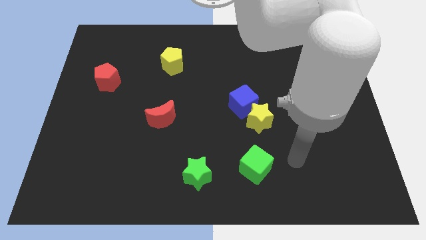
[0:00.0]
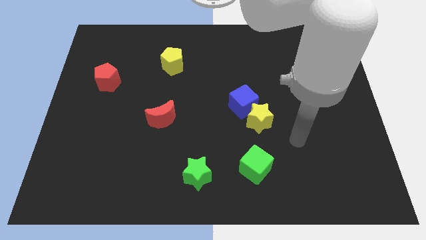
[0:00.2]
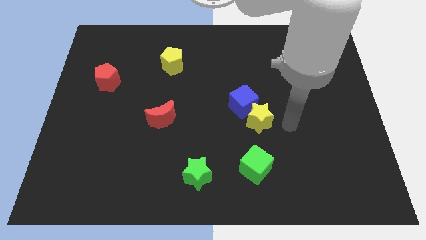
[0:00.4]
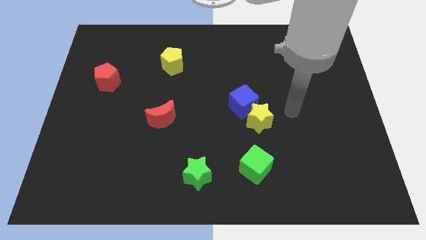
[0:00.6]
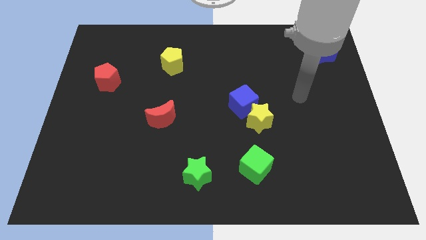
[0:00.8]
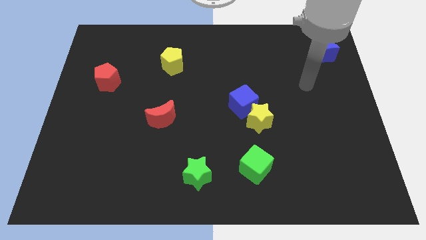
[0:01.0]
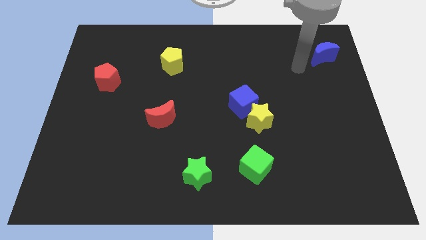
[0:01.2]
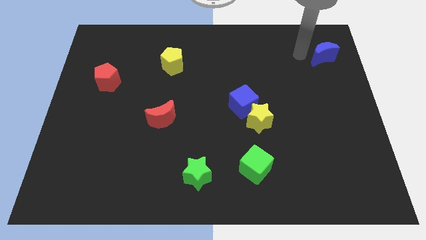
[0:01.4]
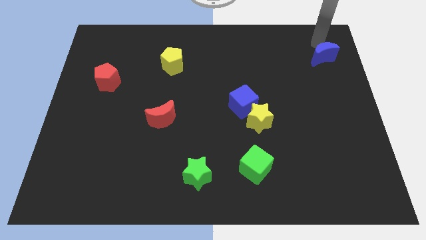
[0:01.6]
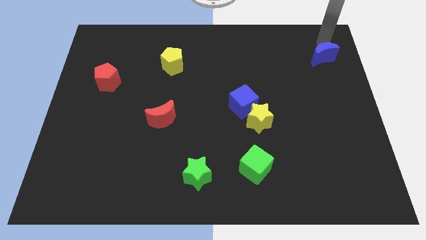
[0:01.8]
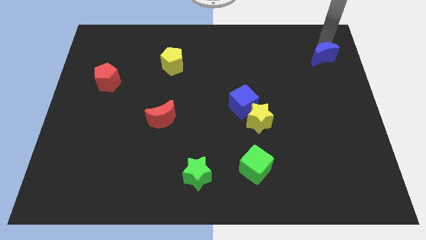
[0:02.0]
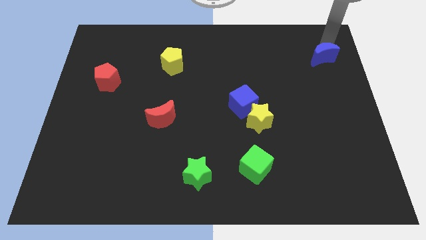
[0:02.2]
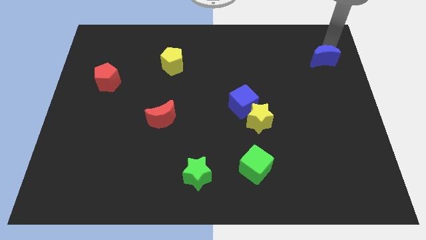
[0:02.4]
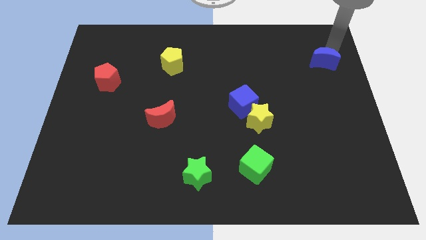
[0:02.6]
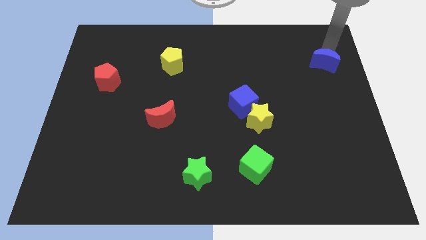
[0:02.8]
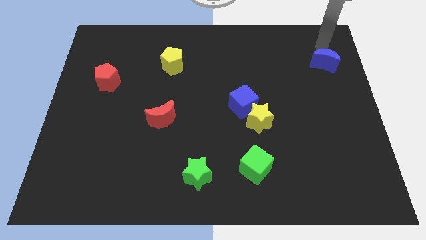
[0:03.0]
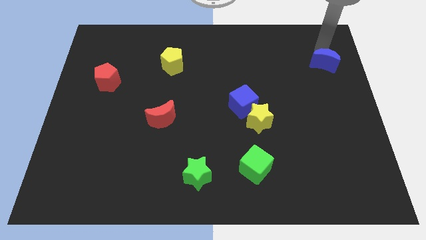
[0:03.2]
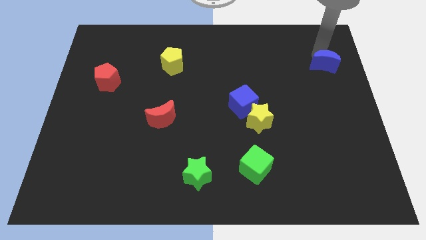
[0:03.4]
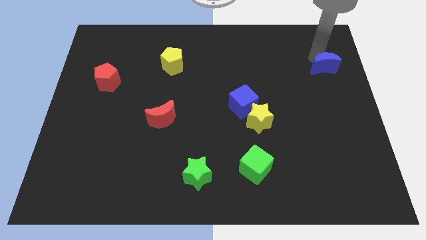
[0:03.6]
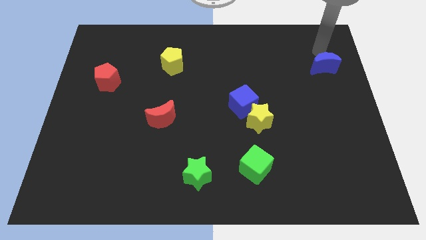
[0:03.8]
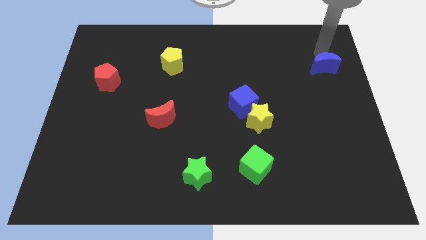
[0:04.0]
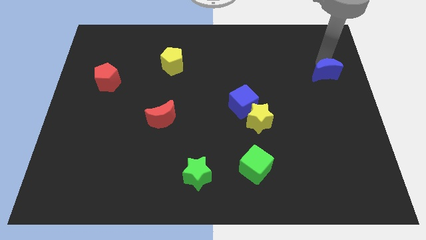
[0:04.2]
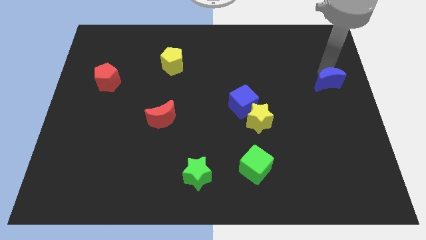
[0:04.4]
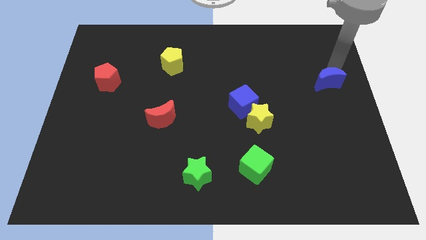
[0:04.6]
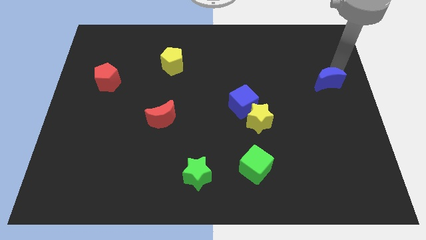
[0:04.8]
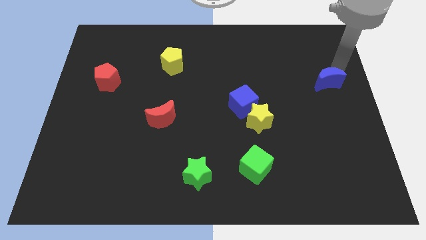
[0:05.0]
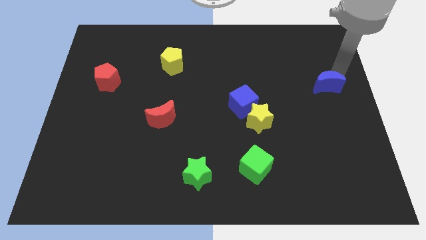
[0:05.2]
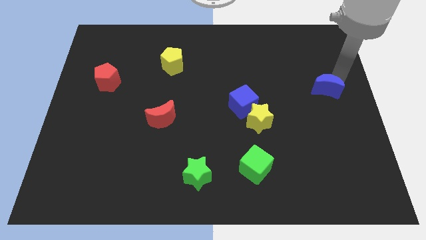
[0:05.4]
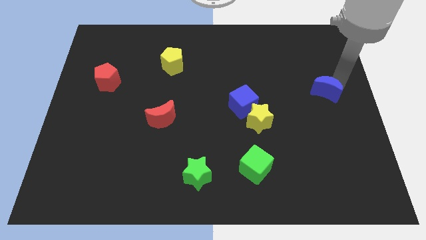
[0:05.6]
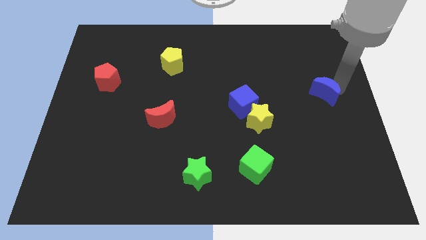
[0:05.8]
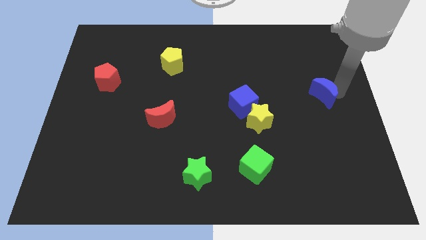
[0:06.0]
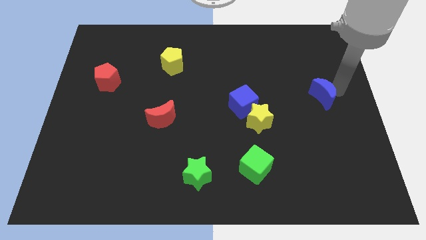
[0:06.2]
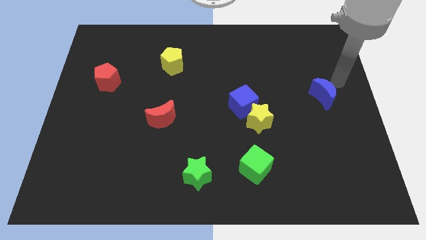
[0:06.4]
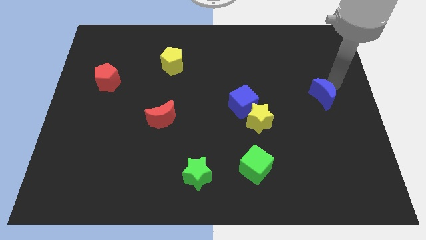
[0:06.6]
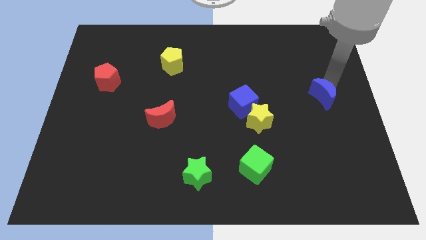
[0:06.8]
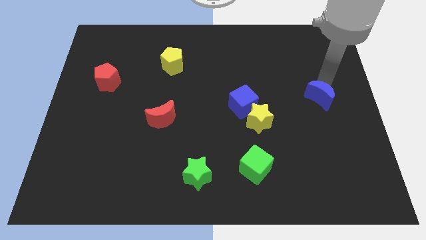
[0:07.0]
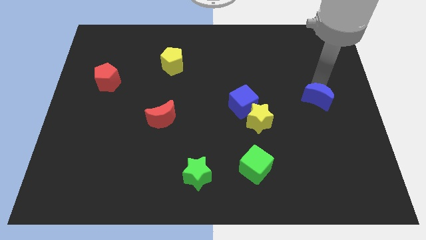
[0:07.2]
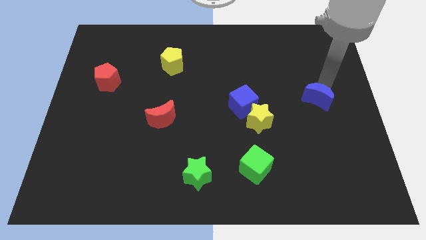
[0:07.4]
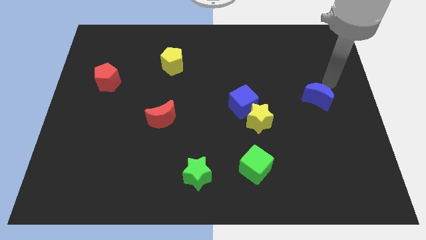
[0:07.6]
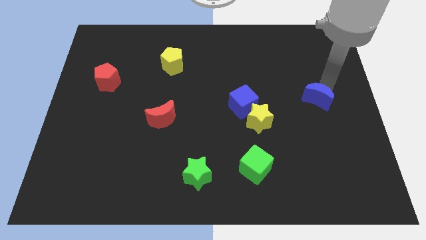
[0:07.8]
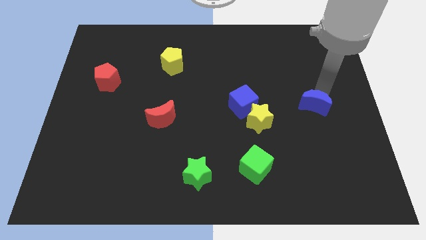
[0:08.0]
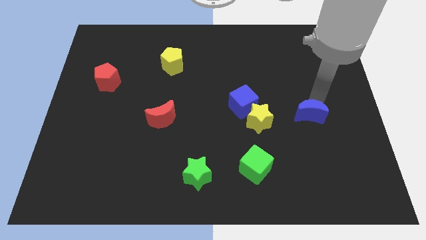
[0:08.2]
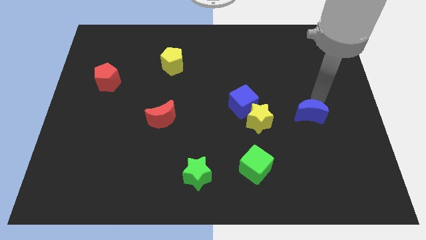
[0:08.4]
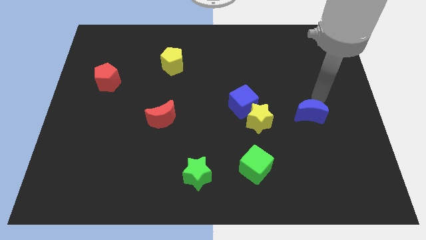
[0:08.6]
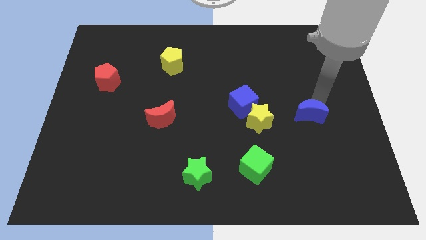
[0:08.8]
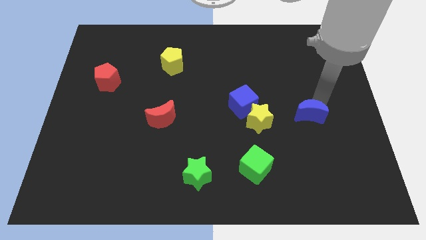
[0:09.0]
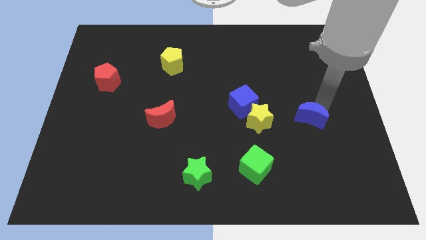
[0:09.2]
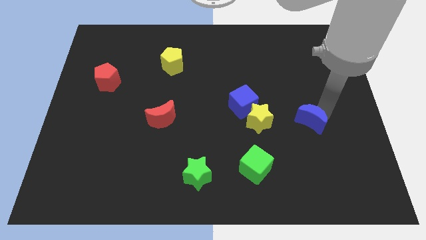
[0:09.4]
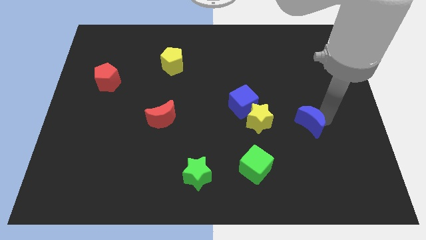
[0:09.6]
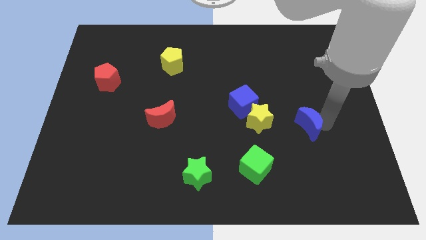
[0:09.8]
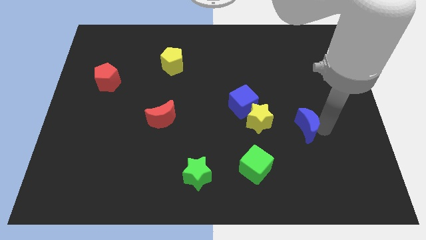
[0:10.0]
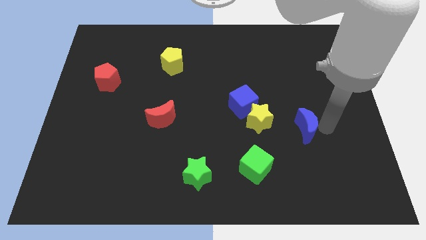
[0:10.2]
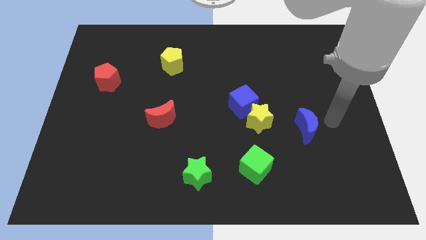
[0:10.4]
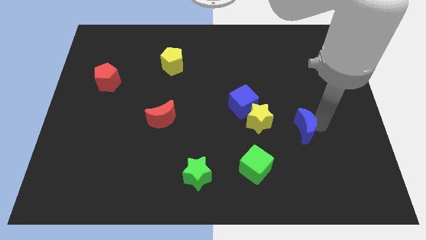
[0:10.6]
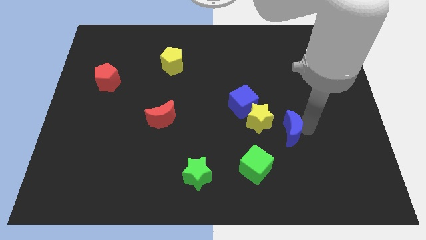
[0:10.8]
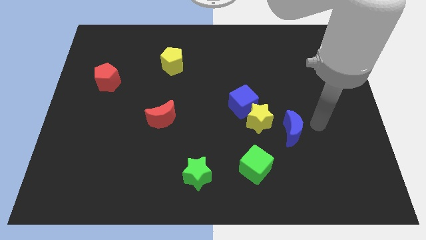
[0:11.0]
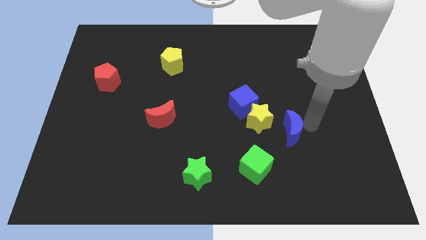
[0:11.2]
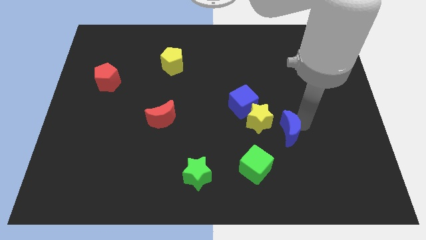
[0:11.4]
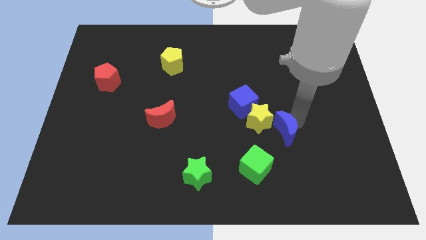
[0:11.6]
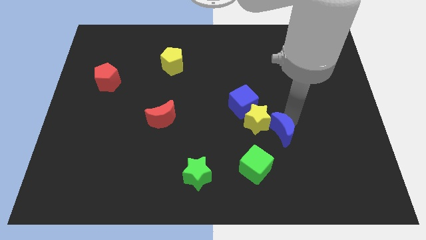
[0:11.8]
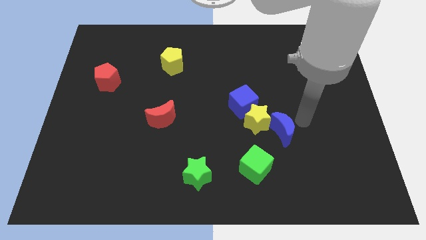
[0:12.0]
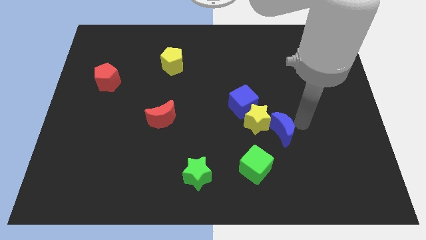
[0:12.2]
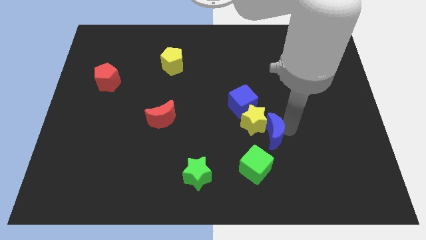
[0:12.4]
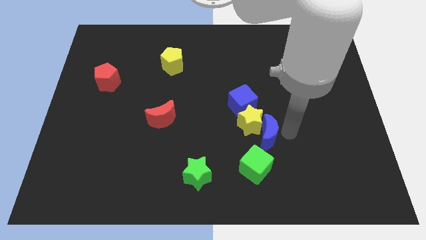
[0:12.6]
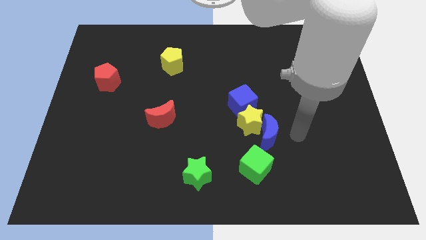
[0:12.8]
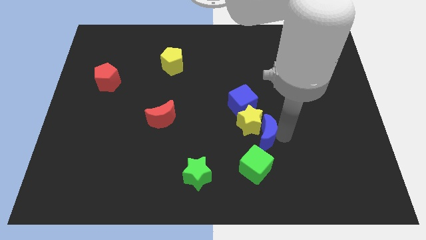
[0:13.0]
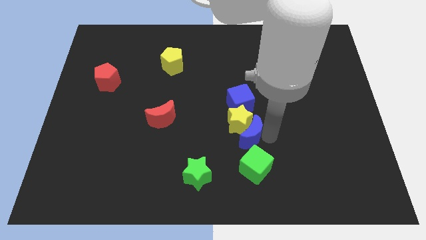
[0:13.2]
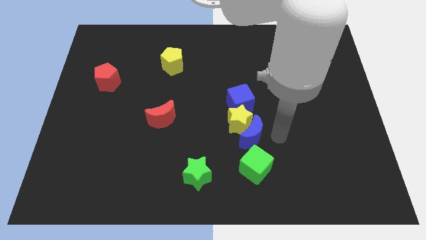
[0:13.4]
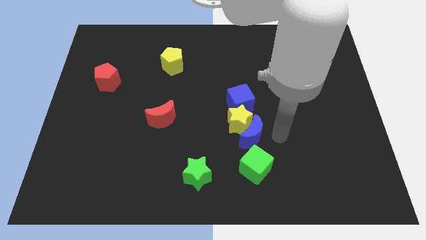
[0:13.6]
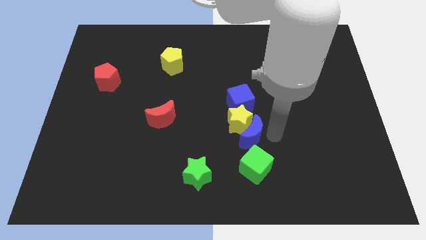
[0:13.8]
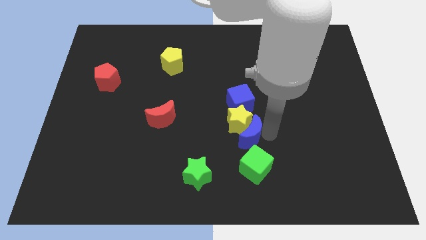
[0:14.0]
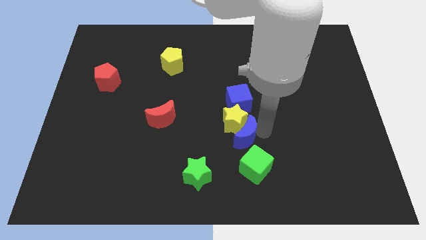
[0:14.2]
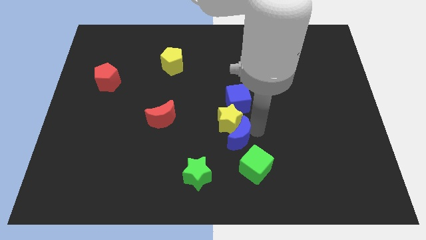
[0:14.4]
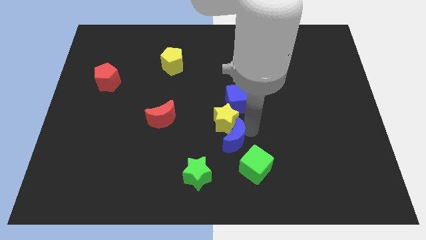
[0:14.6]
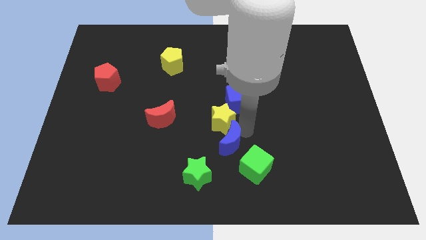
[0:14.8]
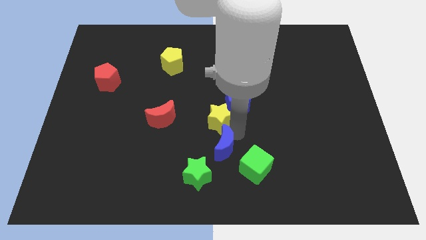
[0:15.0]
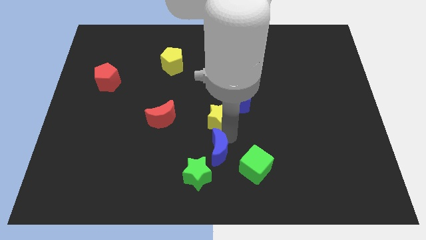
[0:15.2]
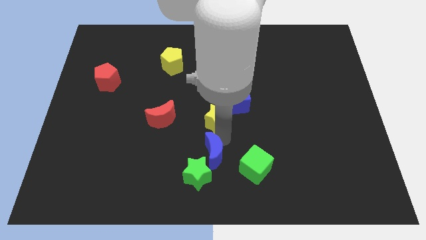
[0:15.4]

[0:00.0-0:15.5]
push the blue moon towards the green star
